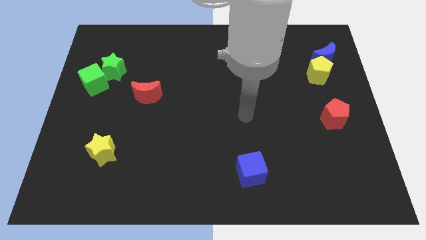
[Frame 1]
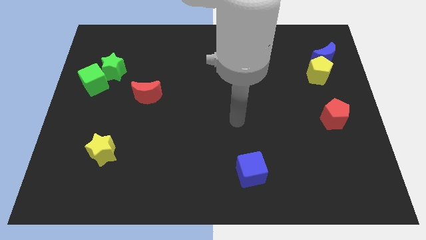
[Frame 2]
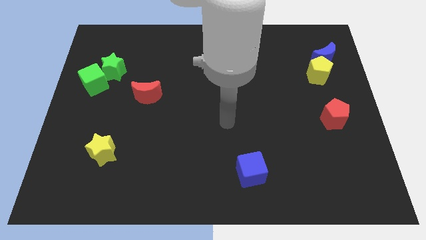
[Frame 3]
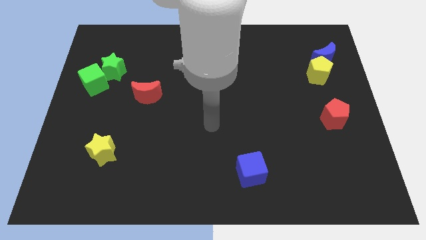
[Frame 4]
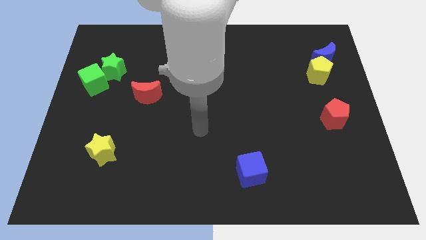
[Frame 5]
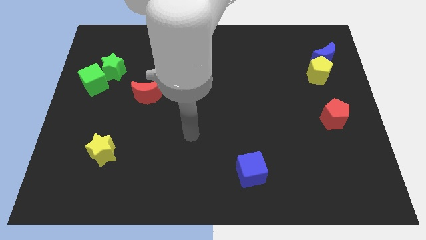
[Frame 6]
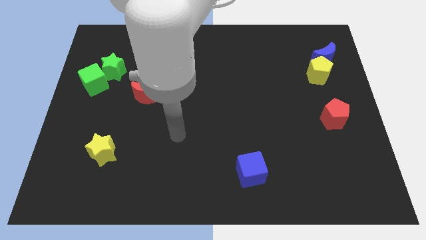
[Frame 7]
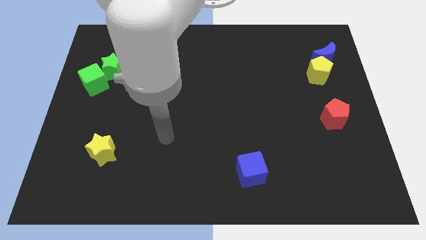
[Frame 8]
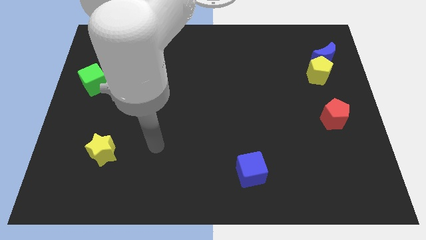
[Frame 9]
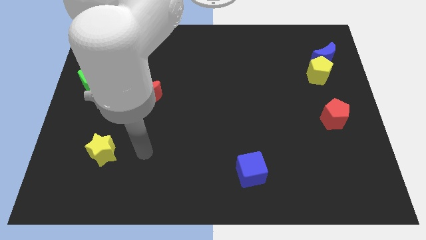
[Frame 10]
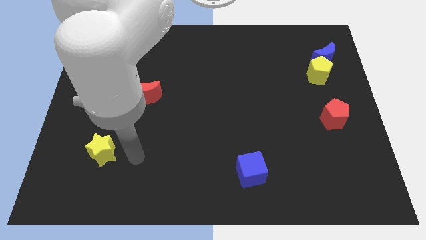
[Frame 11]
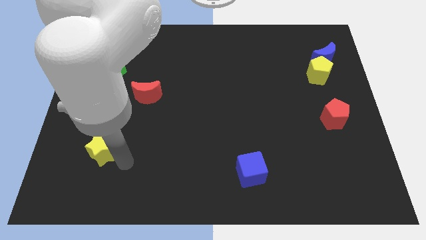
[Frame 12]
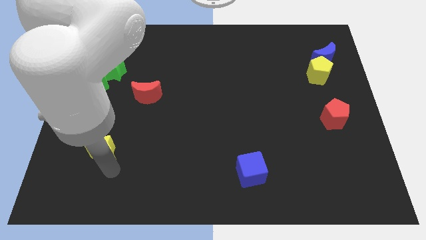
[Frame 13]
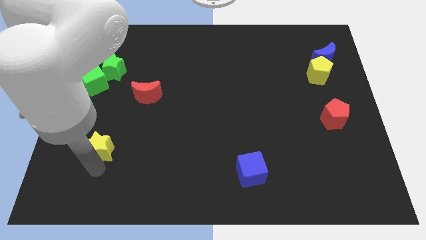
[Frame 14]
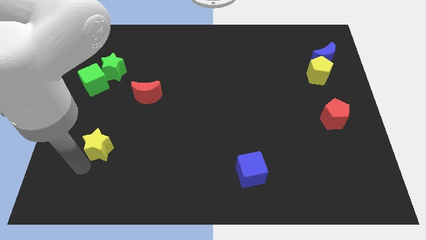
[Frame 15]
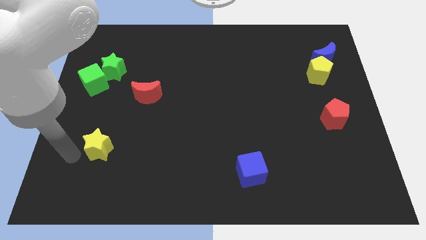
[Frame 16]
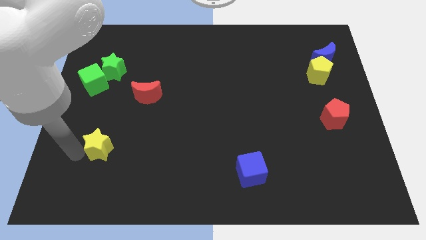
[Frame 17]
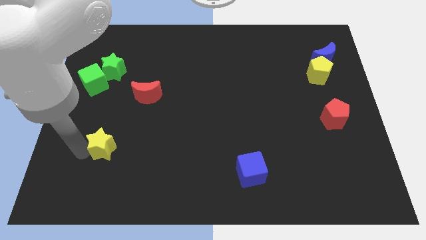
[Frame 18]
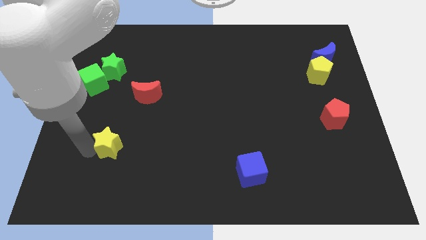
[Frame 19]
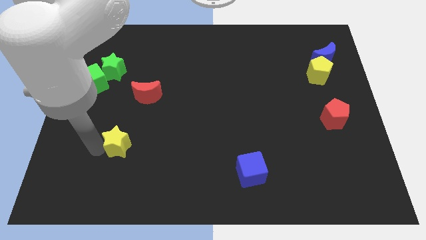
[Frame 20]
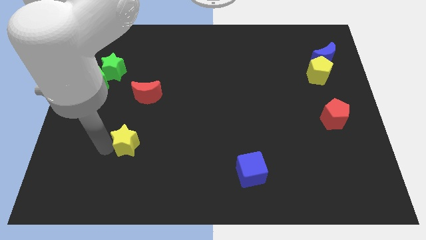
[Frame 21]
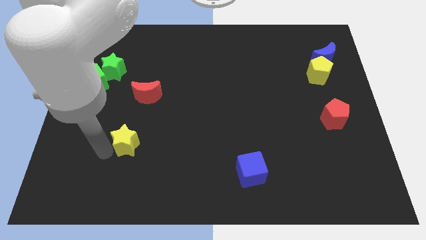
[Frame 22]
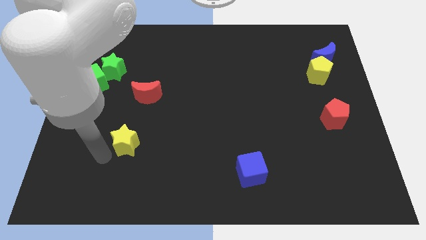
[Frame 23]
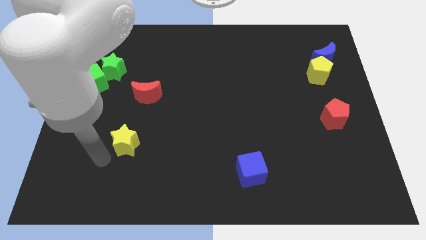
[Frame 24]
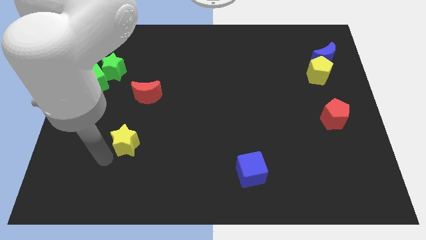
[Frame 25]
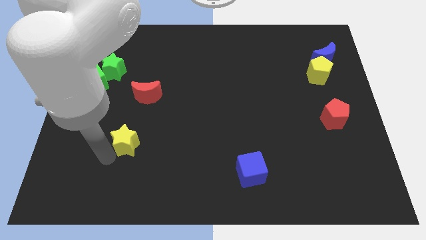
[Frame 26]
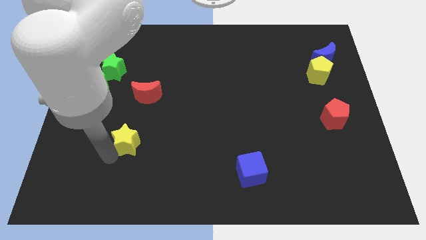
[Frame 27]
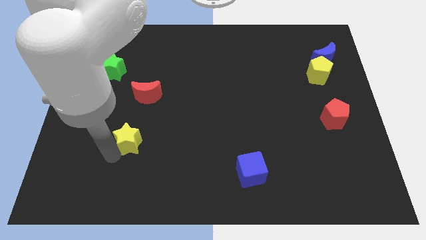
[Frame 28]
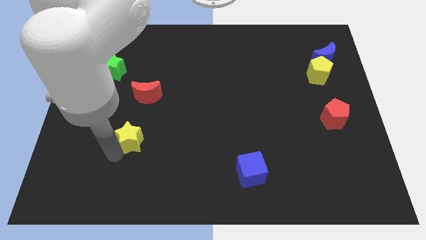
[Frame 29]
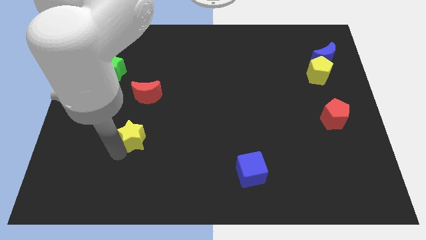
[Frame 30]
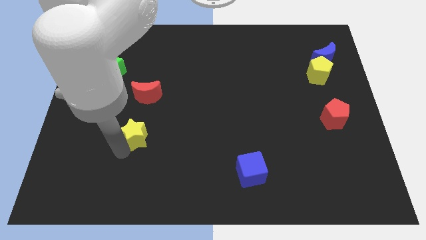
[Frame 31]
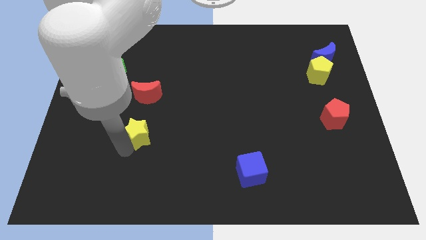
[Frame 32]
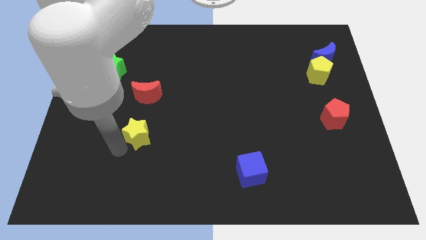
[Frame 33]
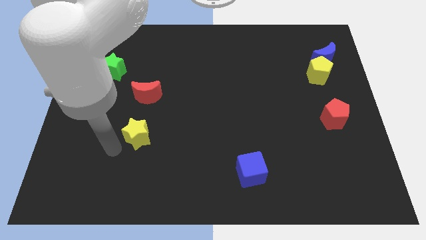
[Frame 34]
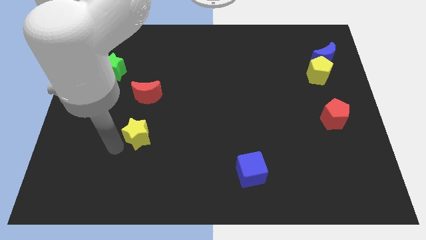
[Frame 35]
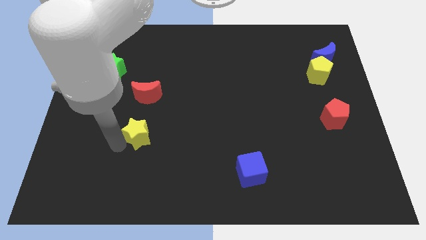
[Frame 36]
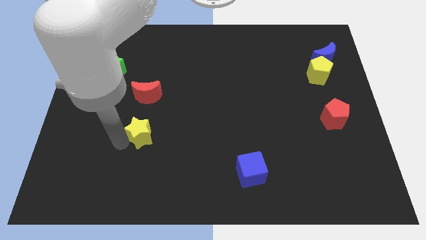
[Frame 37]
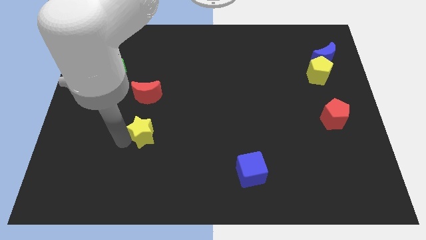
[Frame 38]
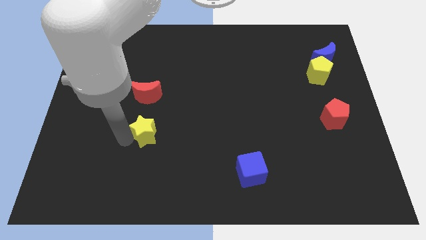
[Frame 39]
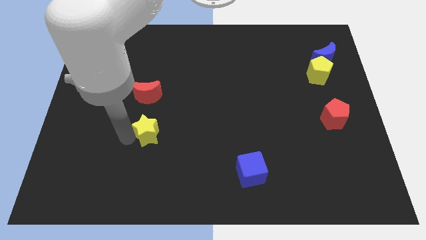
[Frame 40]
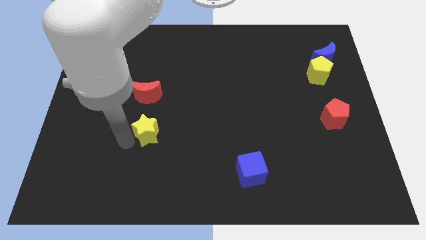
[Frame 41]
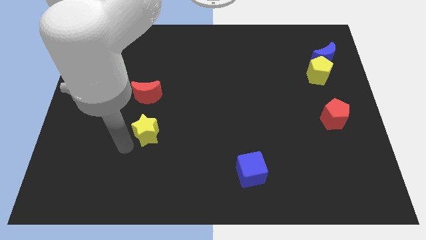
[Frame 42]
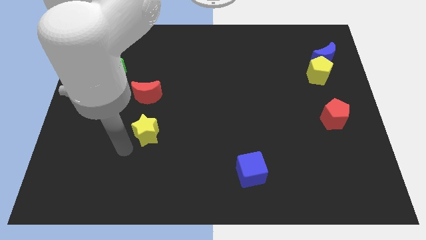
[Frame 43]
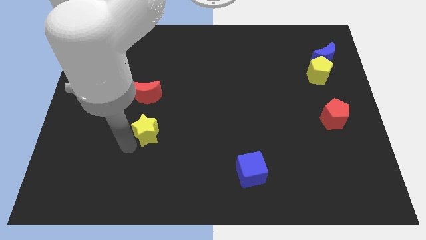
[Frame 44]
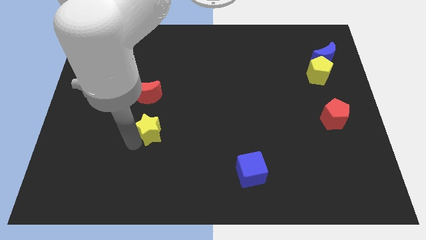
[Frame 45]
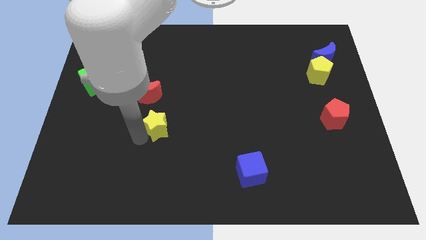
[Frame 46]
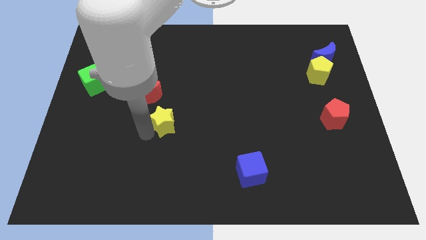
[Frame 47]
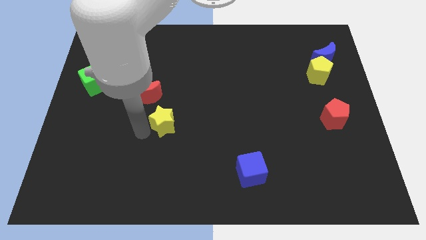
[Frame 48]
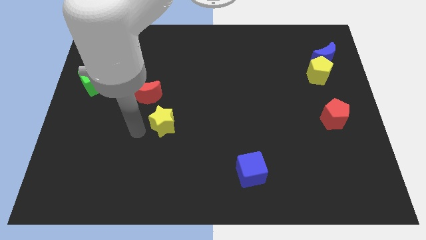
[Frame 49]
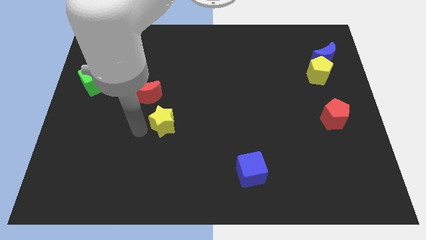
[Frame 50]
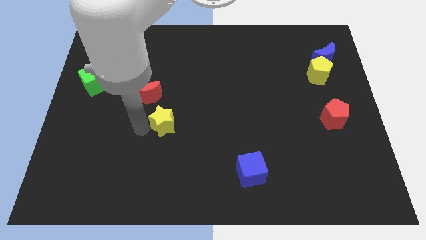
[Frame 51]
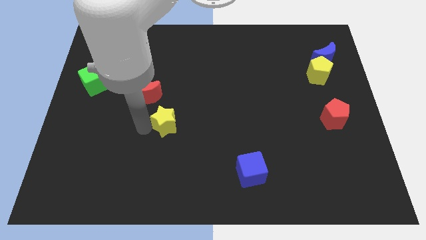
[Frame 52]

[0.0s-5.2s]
slide the yellow star to the center of the board

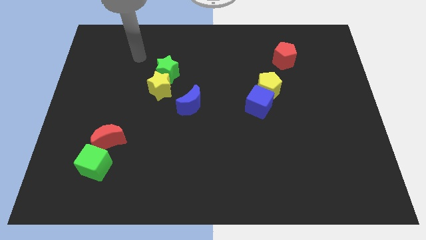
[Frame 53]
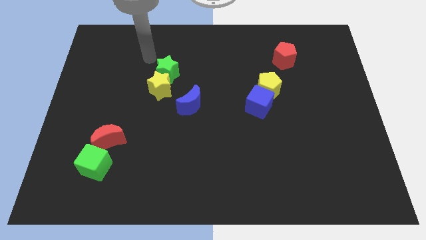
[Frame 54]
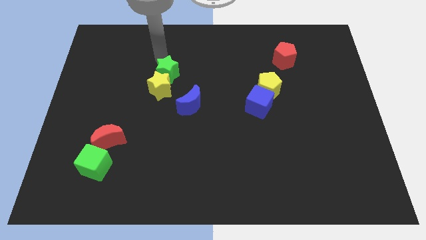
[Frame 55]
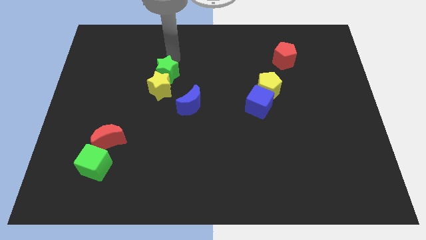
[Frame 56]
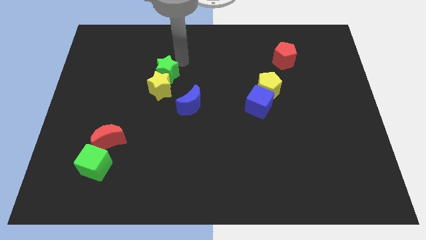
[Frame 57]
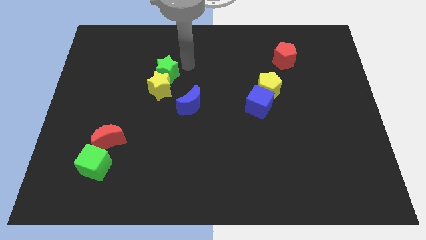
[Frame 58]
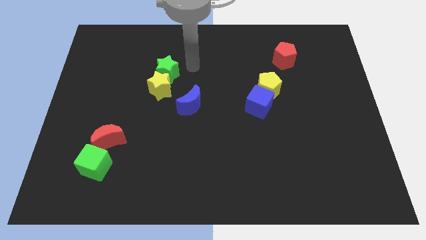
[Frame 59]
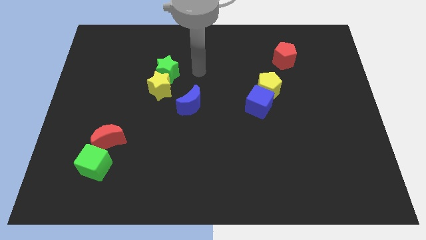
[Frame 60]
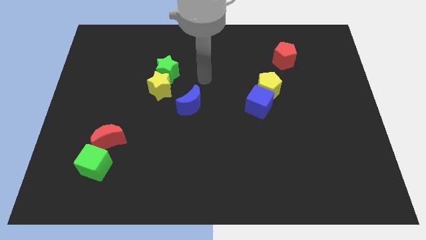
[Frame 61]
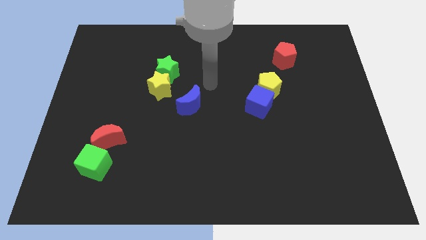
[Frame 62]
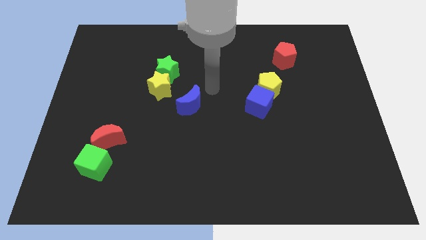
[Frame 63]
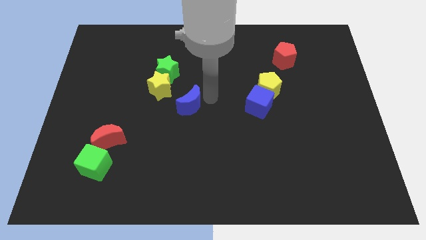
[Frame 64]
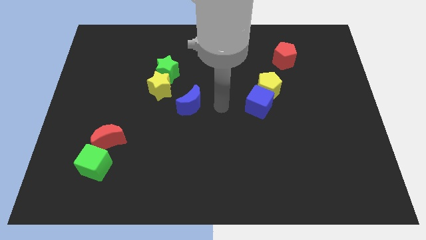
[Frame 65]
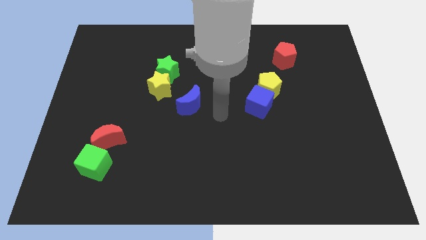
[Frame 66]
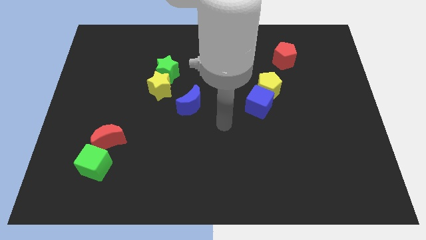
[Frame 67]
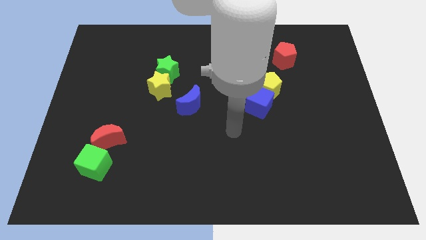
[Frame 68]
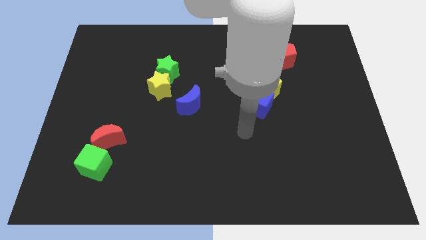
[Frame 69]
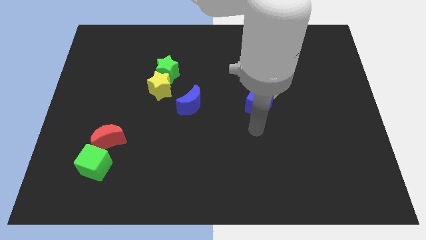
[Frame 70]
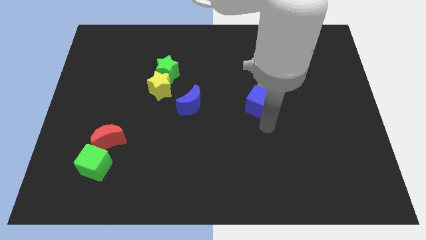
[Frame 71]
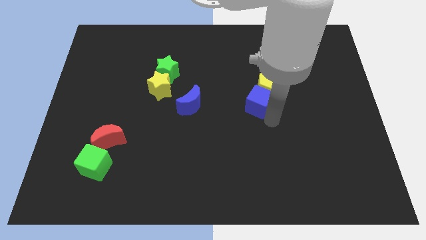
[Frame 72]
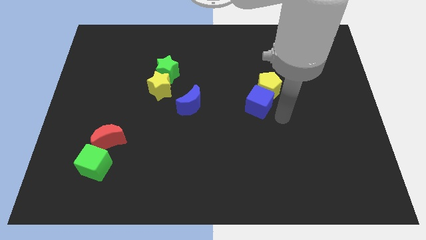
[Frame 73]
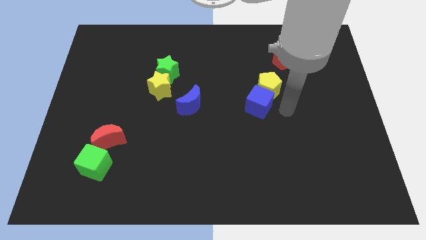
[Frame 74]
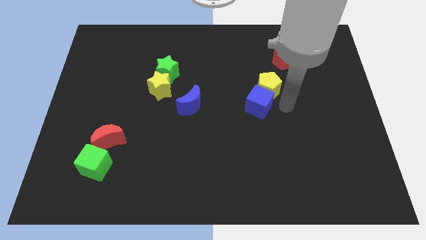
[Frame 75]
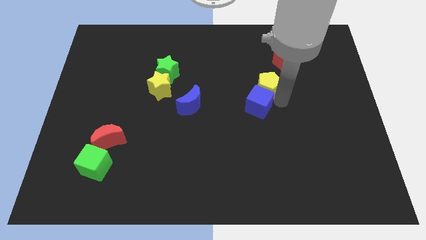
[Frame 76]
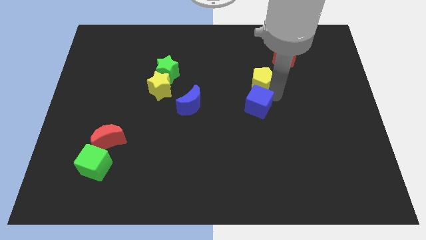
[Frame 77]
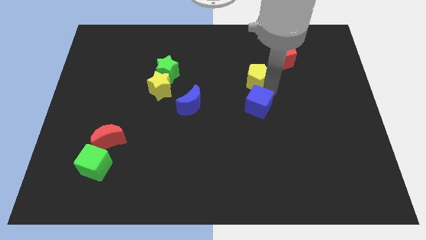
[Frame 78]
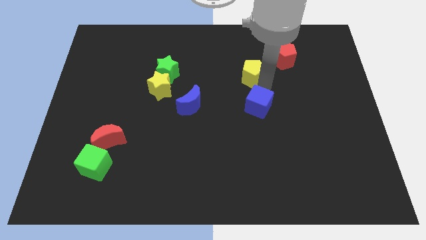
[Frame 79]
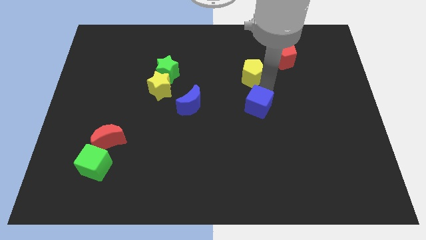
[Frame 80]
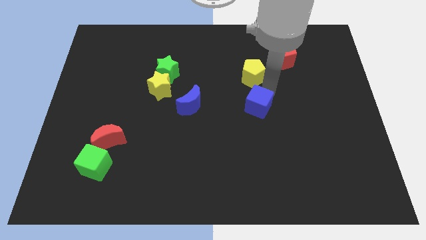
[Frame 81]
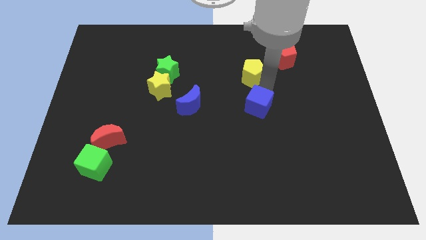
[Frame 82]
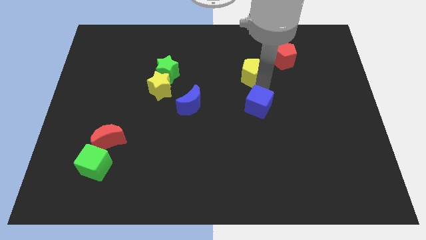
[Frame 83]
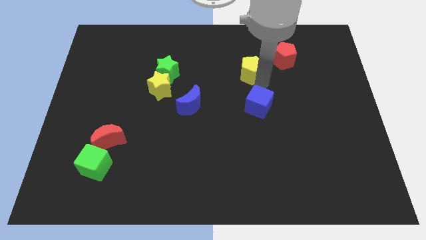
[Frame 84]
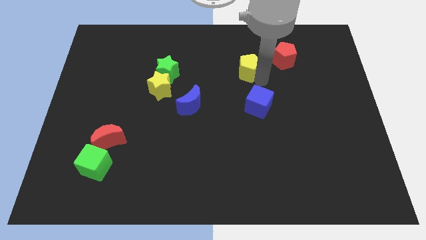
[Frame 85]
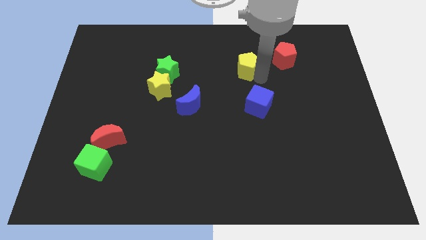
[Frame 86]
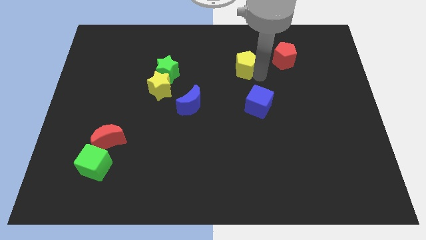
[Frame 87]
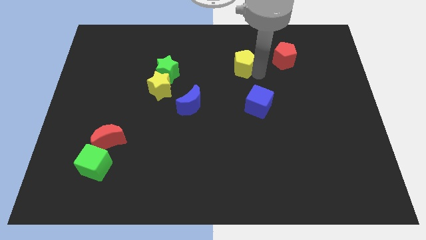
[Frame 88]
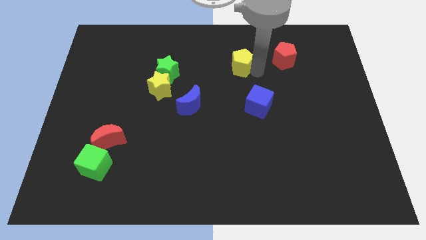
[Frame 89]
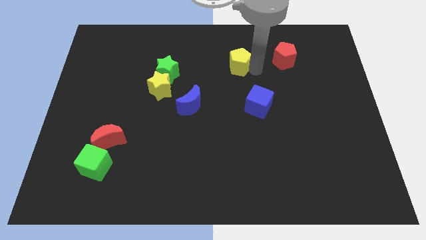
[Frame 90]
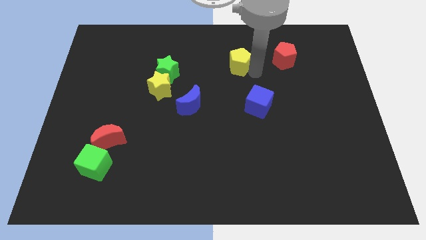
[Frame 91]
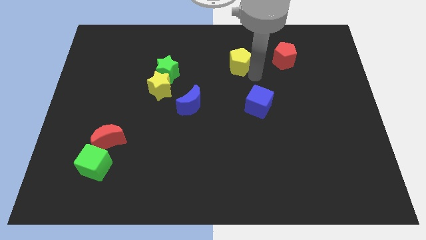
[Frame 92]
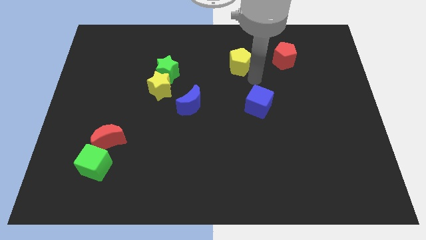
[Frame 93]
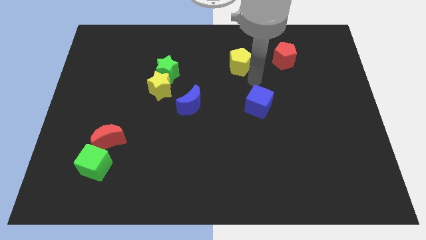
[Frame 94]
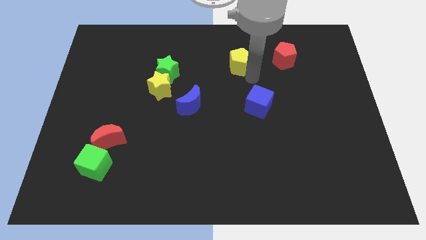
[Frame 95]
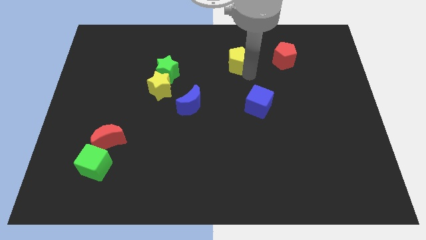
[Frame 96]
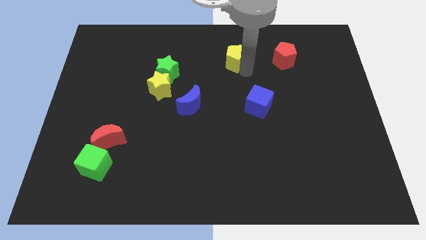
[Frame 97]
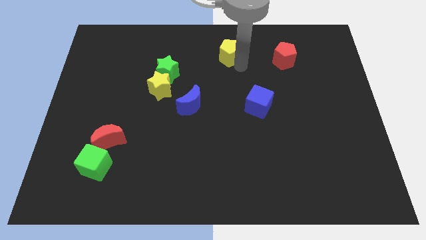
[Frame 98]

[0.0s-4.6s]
put the yellow pentagon to the top
